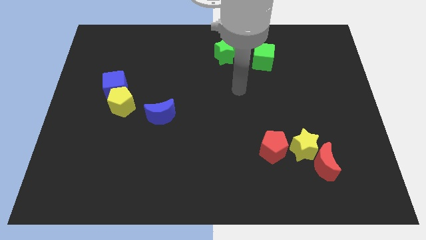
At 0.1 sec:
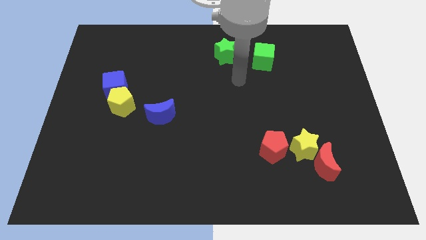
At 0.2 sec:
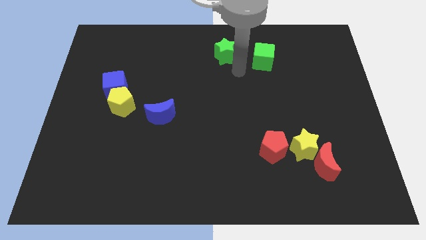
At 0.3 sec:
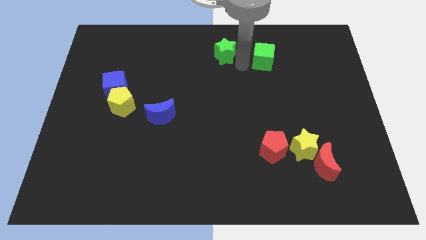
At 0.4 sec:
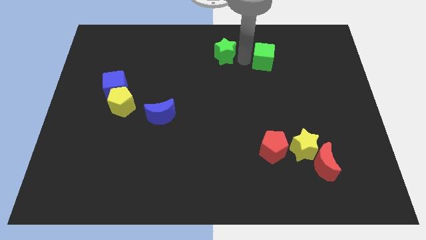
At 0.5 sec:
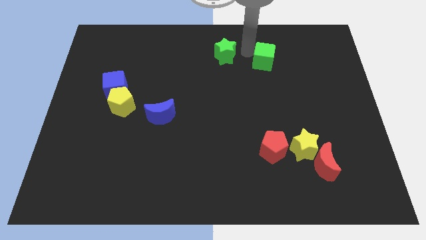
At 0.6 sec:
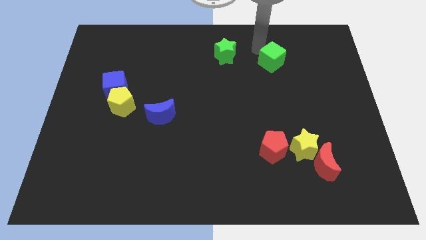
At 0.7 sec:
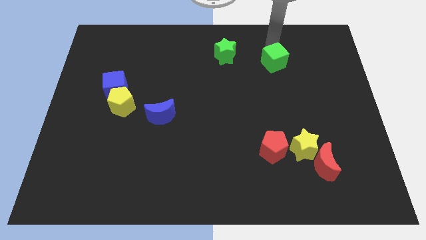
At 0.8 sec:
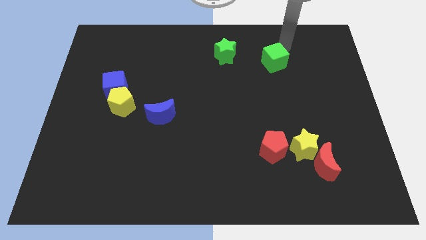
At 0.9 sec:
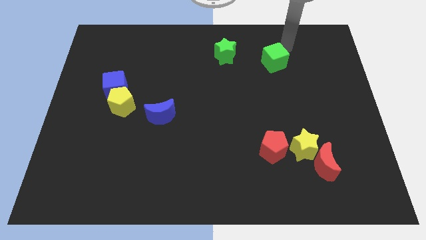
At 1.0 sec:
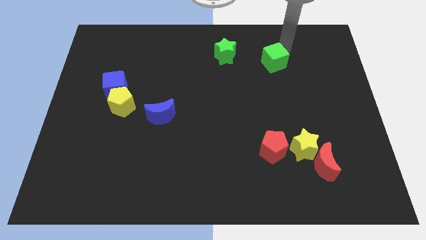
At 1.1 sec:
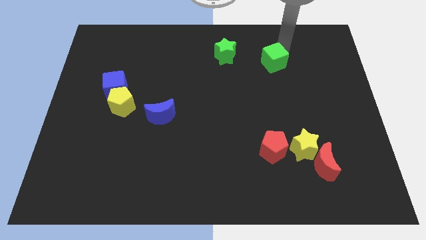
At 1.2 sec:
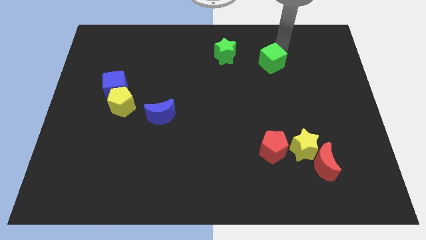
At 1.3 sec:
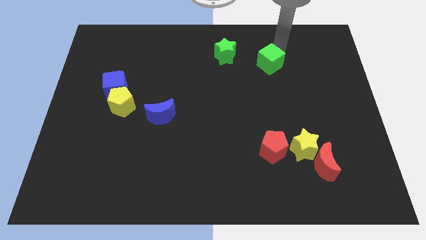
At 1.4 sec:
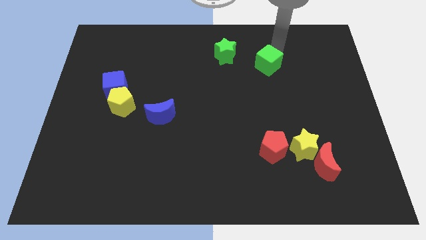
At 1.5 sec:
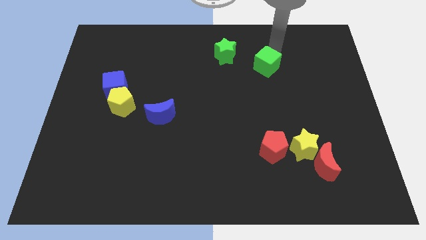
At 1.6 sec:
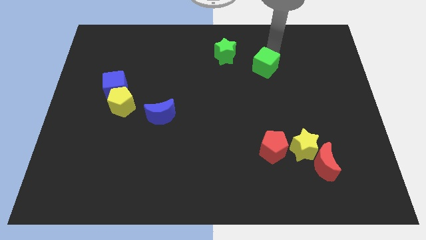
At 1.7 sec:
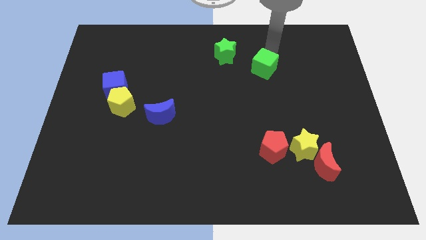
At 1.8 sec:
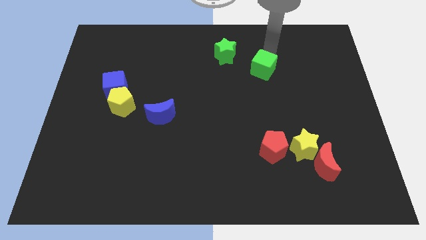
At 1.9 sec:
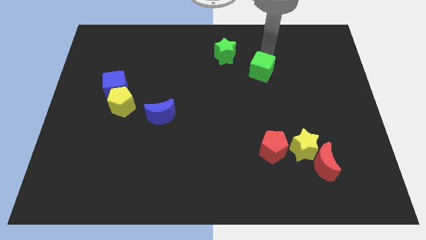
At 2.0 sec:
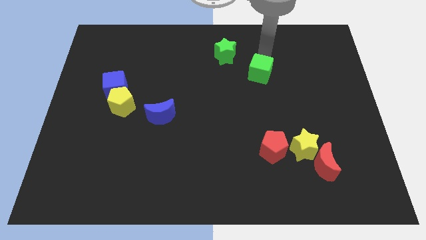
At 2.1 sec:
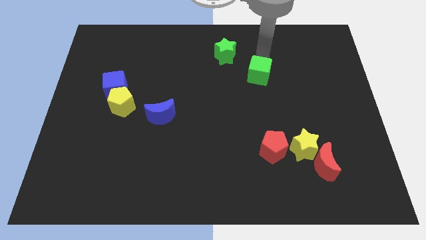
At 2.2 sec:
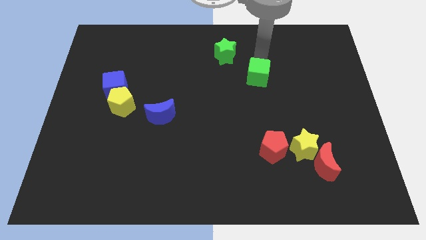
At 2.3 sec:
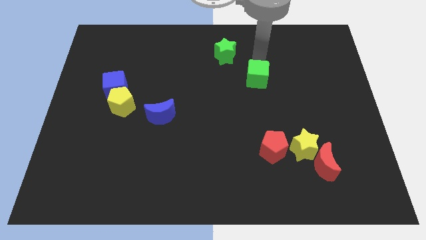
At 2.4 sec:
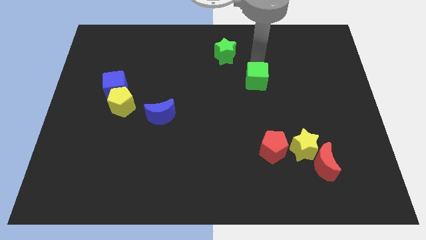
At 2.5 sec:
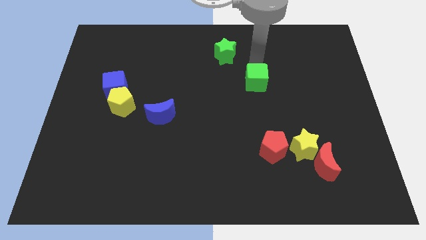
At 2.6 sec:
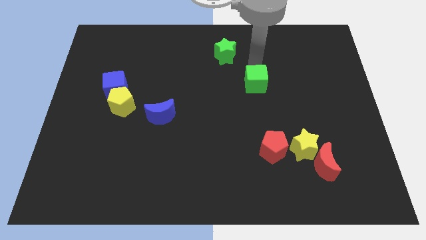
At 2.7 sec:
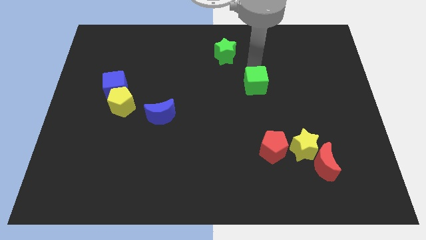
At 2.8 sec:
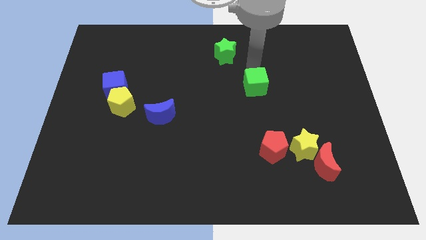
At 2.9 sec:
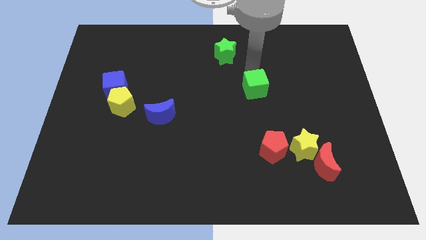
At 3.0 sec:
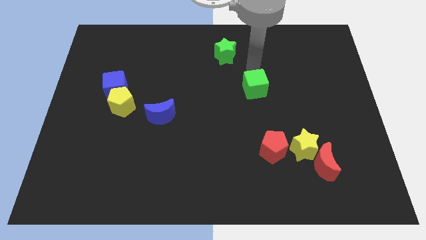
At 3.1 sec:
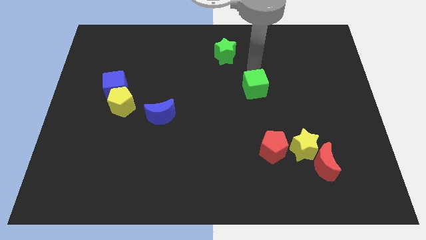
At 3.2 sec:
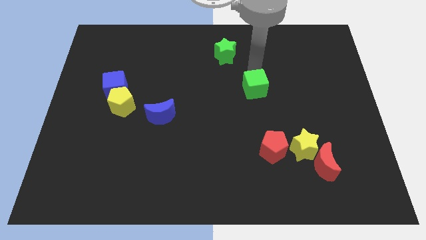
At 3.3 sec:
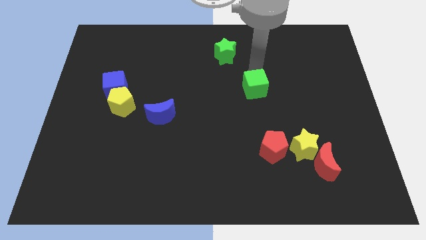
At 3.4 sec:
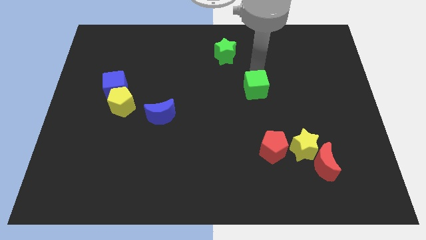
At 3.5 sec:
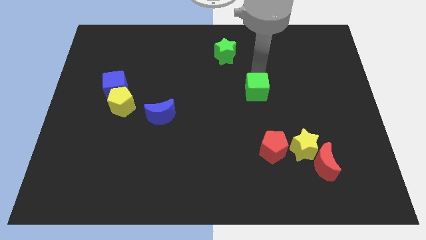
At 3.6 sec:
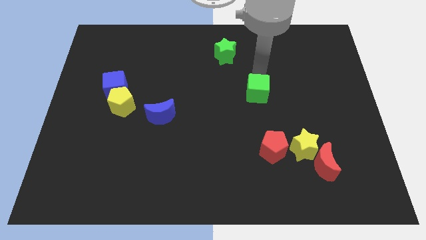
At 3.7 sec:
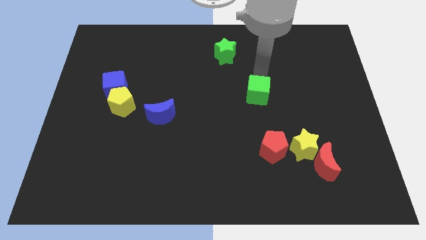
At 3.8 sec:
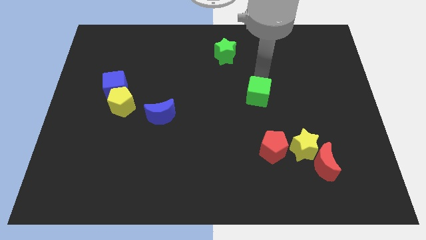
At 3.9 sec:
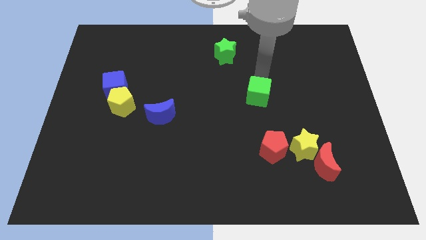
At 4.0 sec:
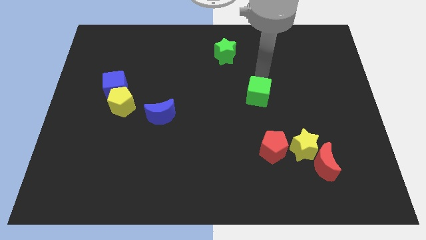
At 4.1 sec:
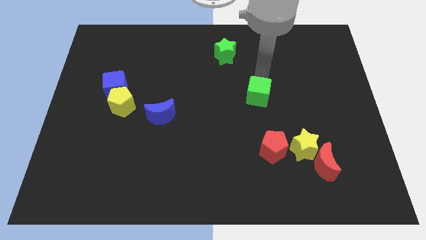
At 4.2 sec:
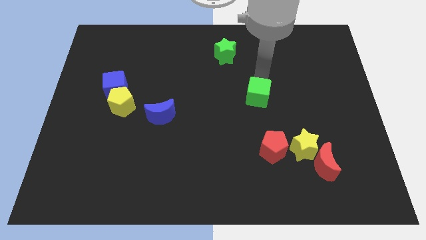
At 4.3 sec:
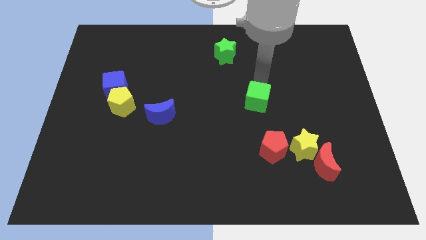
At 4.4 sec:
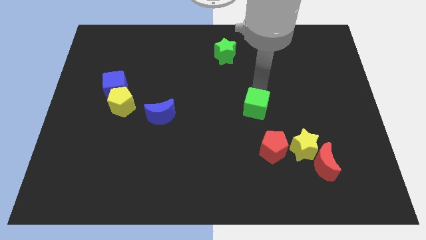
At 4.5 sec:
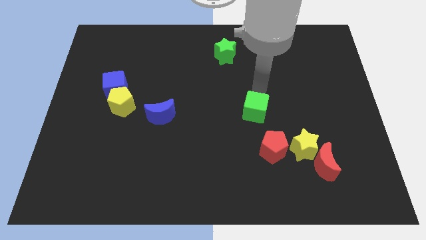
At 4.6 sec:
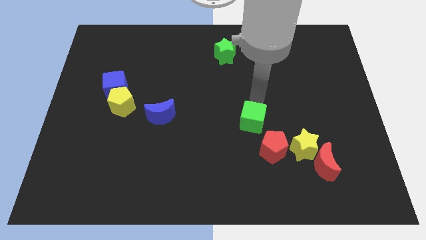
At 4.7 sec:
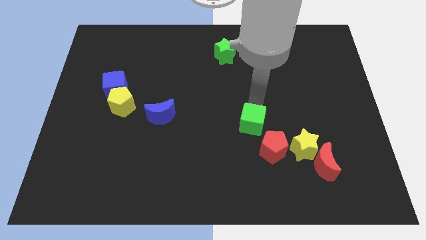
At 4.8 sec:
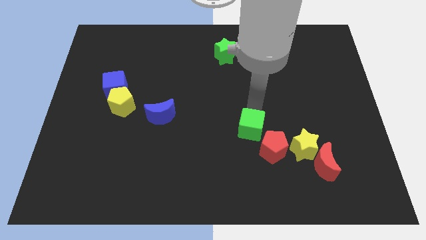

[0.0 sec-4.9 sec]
slide the green cube down

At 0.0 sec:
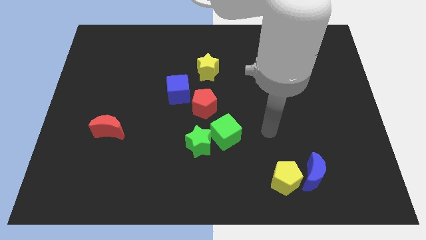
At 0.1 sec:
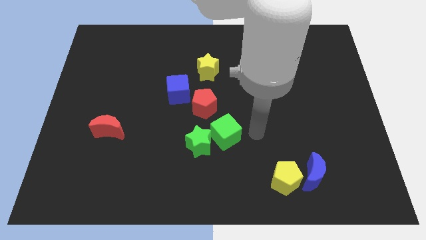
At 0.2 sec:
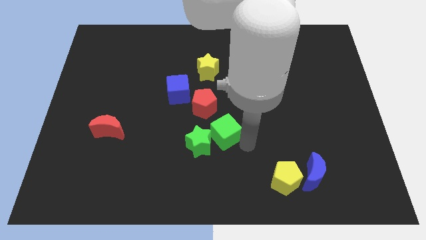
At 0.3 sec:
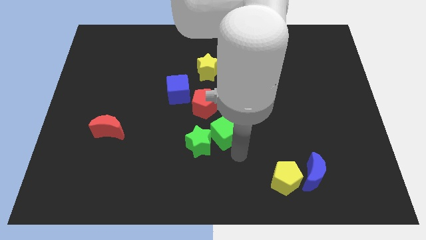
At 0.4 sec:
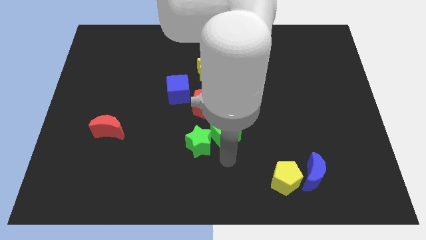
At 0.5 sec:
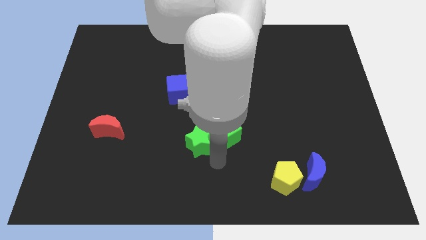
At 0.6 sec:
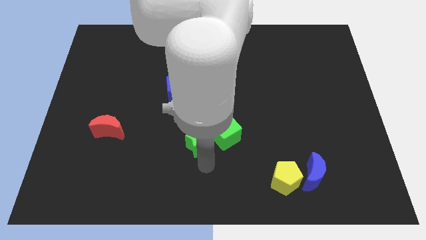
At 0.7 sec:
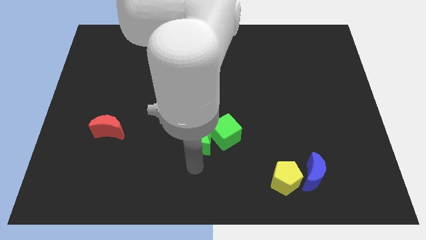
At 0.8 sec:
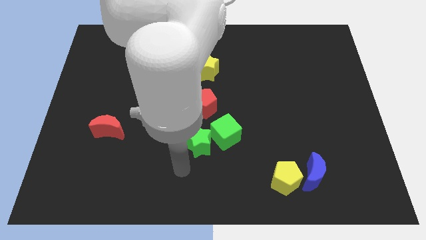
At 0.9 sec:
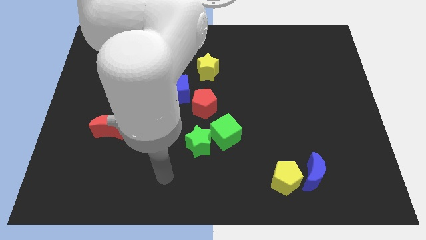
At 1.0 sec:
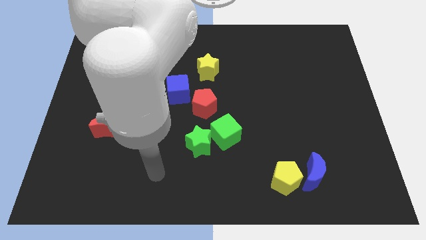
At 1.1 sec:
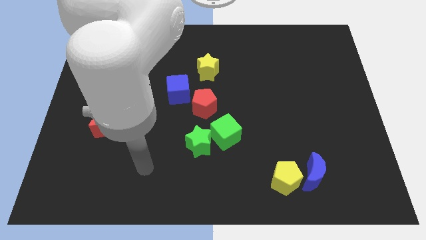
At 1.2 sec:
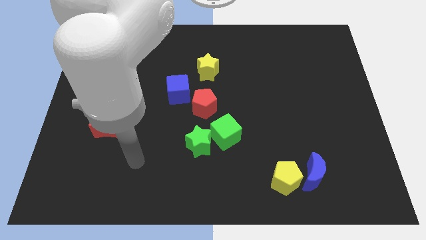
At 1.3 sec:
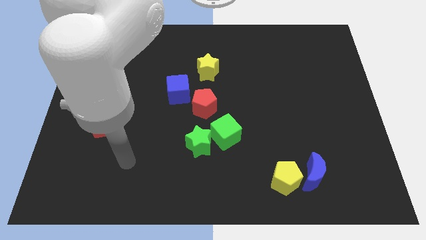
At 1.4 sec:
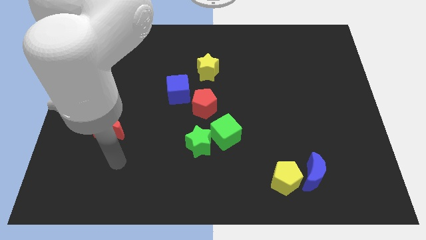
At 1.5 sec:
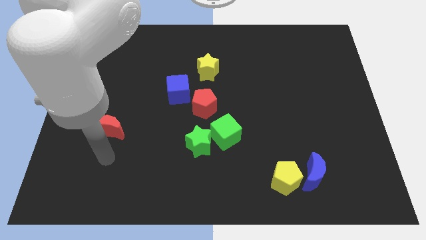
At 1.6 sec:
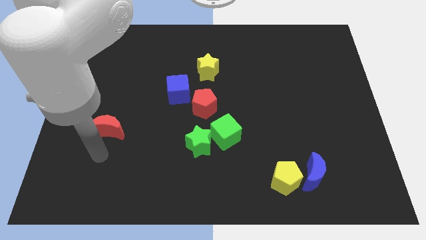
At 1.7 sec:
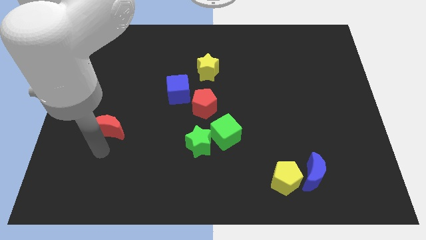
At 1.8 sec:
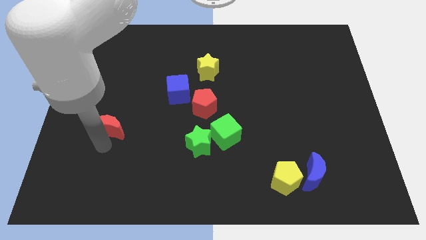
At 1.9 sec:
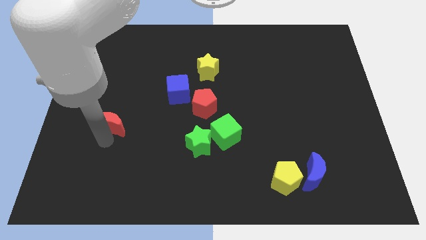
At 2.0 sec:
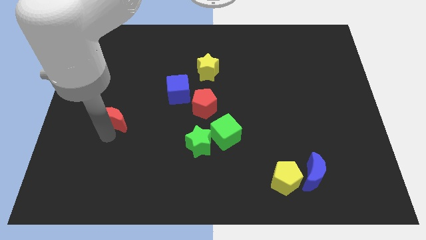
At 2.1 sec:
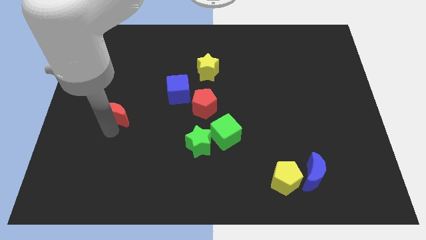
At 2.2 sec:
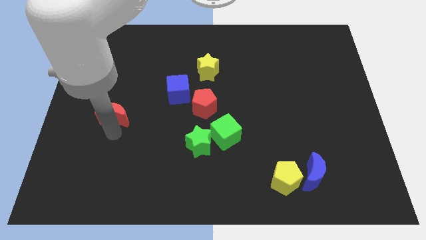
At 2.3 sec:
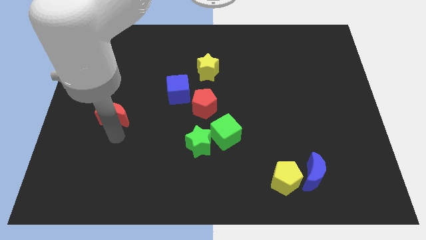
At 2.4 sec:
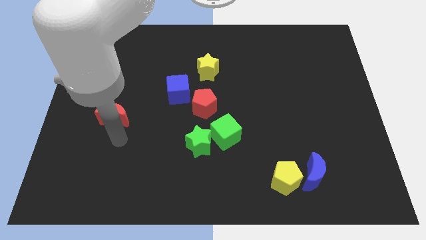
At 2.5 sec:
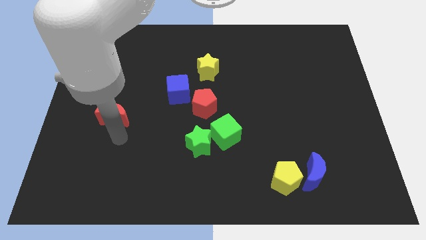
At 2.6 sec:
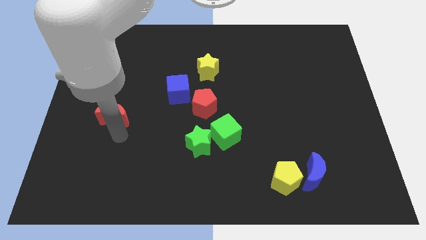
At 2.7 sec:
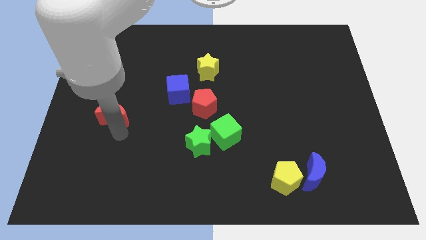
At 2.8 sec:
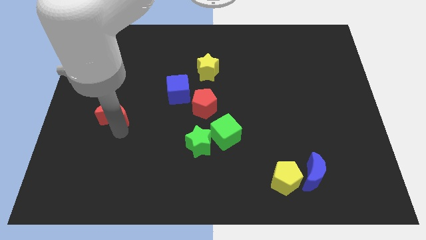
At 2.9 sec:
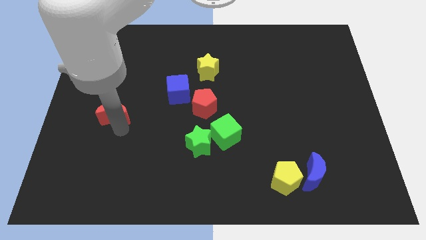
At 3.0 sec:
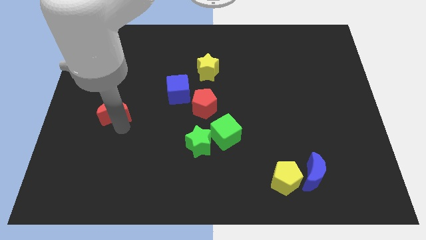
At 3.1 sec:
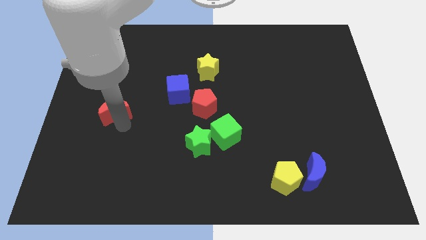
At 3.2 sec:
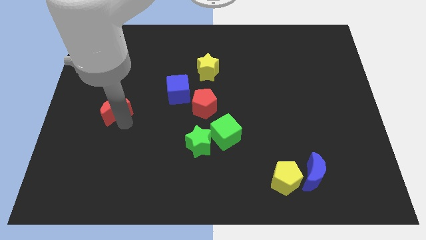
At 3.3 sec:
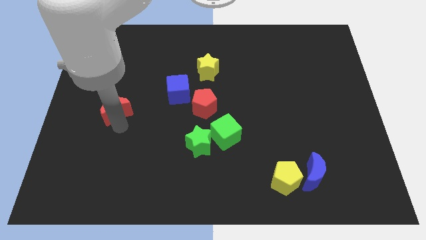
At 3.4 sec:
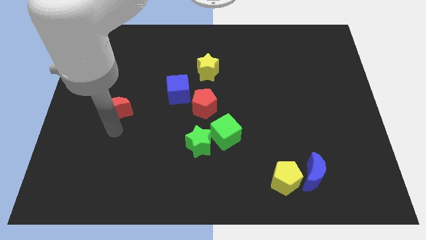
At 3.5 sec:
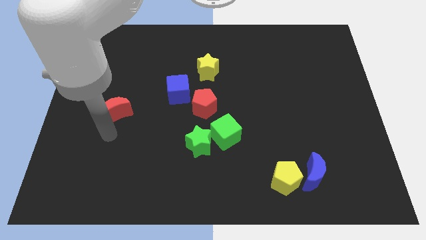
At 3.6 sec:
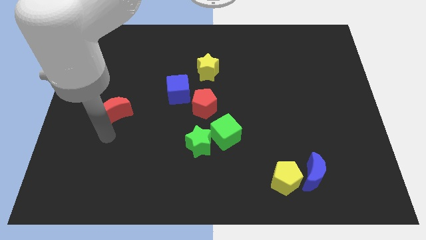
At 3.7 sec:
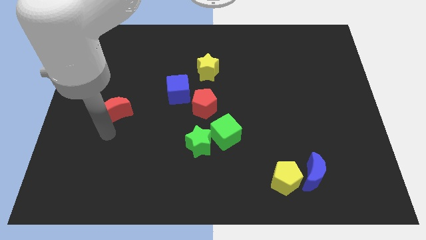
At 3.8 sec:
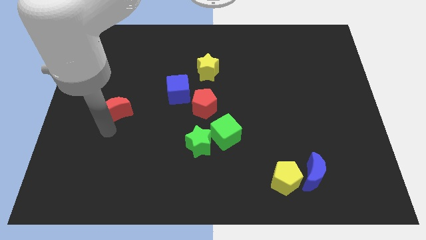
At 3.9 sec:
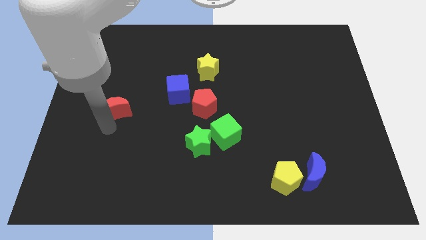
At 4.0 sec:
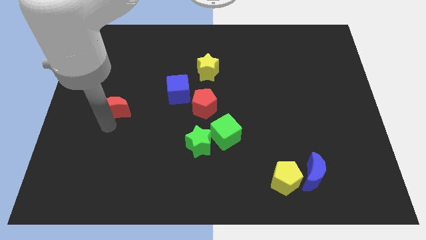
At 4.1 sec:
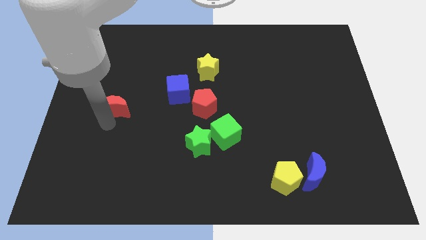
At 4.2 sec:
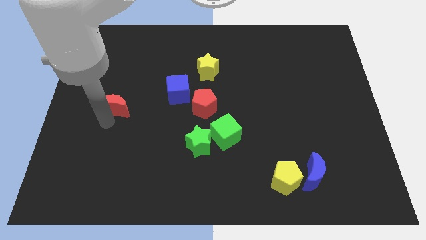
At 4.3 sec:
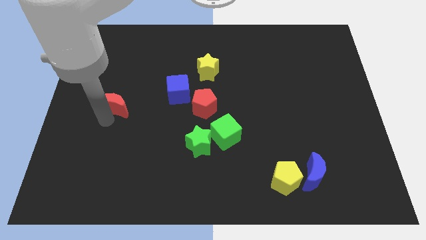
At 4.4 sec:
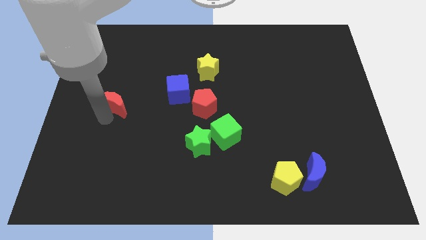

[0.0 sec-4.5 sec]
move the red moon up slightly
